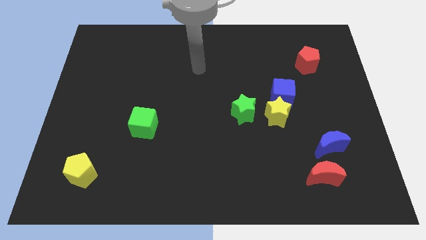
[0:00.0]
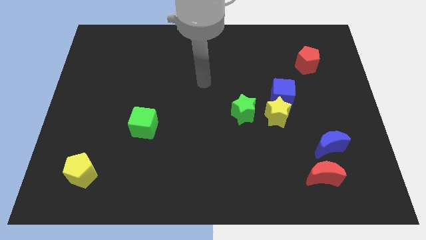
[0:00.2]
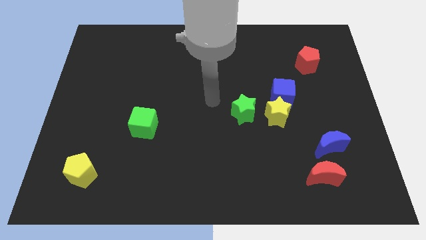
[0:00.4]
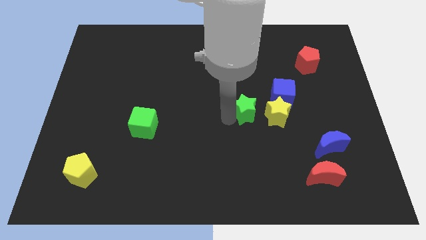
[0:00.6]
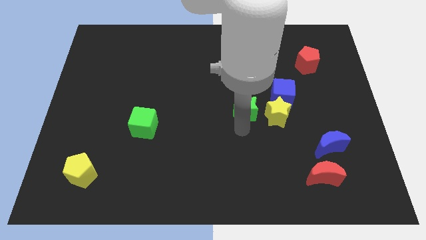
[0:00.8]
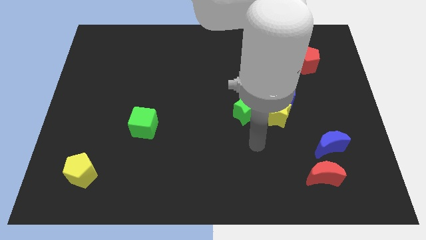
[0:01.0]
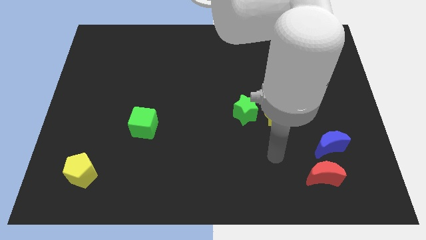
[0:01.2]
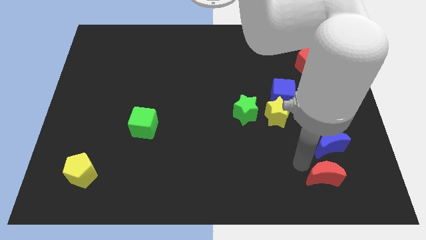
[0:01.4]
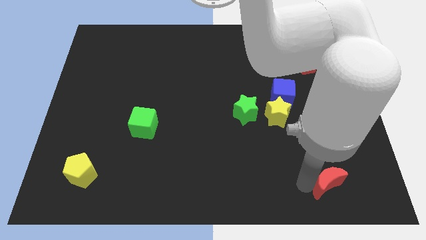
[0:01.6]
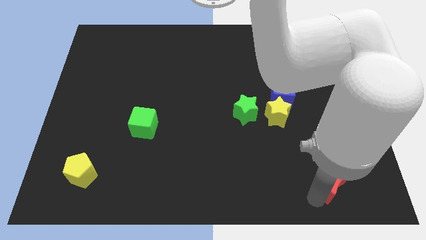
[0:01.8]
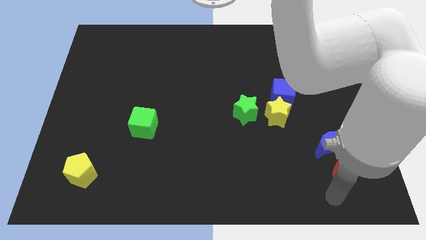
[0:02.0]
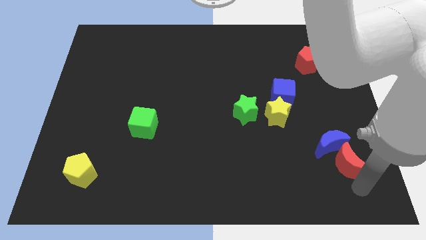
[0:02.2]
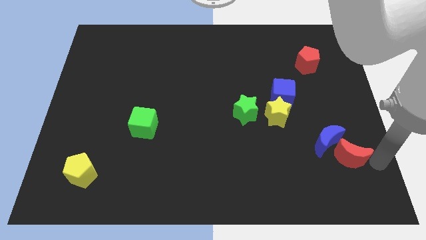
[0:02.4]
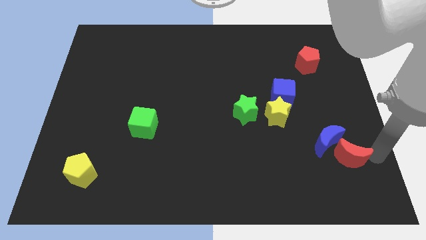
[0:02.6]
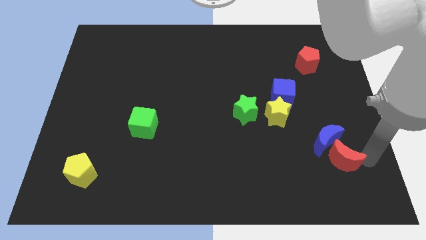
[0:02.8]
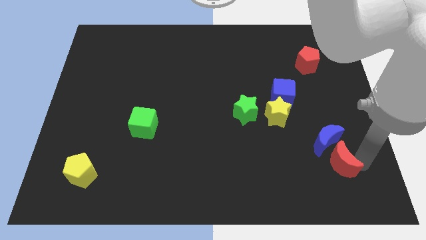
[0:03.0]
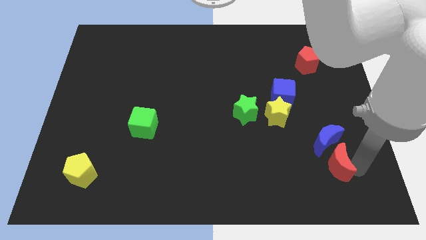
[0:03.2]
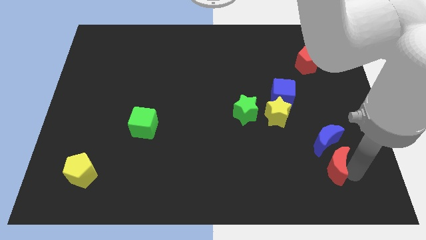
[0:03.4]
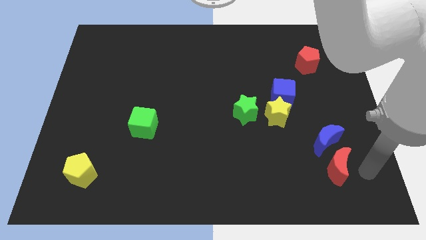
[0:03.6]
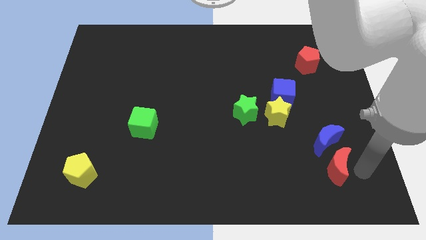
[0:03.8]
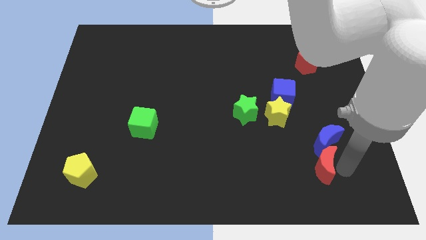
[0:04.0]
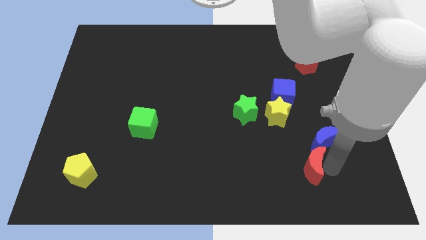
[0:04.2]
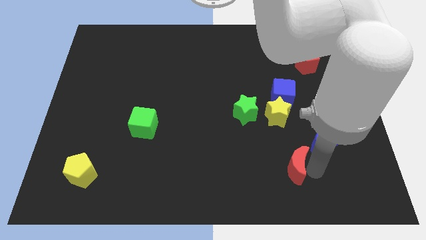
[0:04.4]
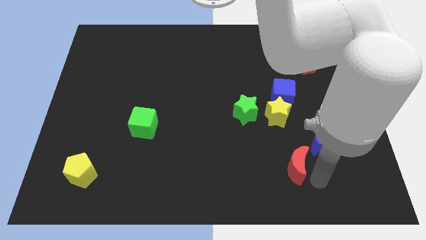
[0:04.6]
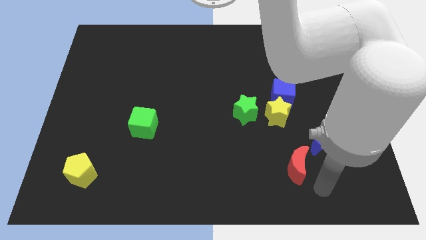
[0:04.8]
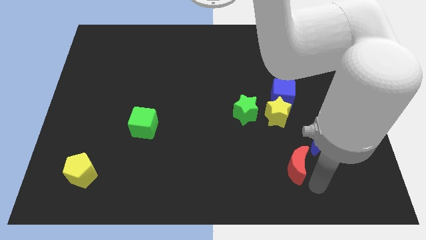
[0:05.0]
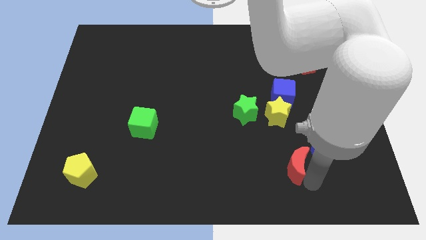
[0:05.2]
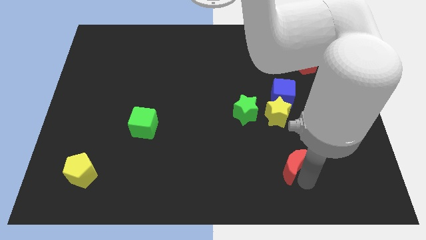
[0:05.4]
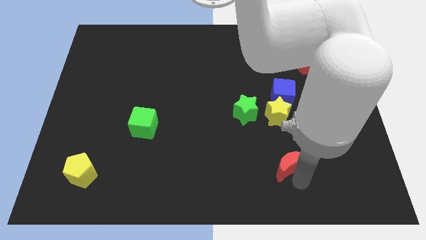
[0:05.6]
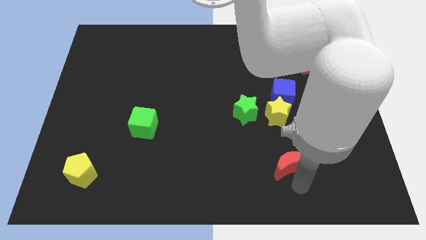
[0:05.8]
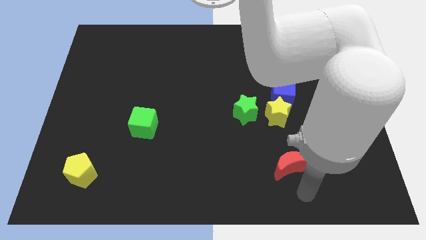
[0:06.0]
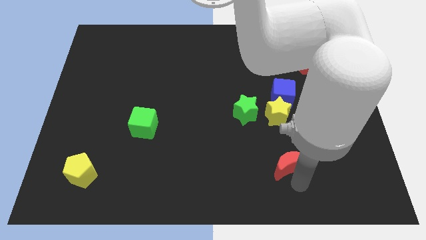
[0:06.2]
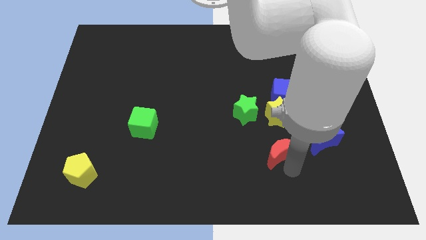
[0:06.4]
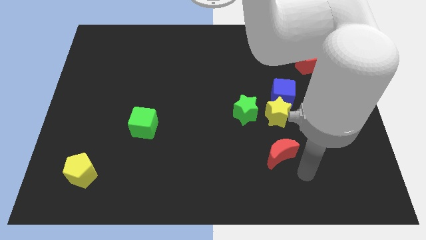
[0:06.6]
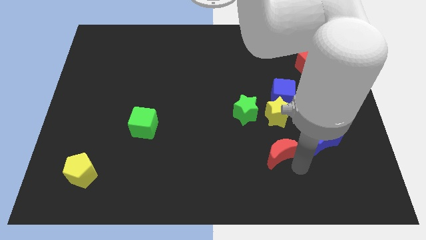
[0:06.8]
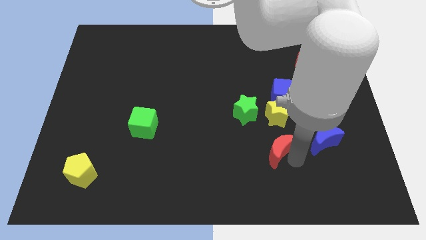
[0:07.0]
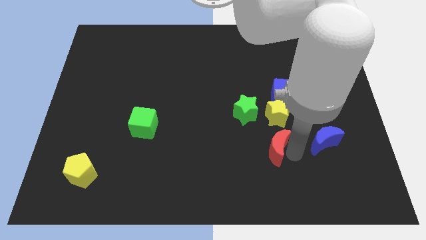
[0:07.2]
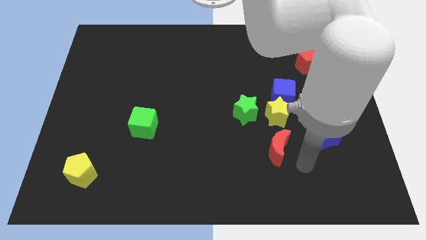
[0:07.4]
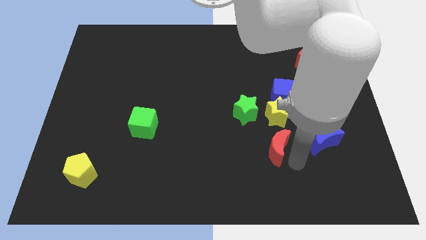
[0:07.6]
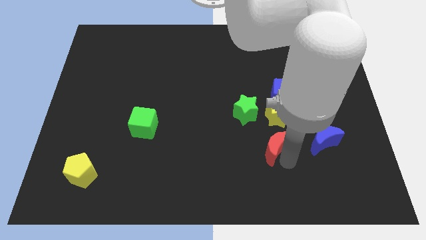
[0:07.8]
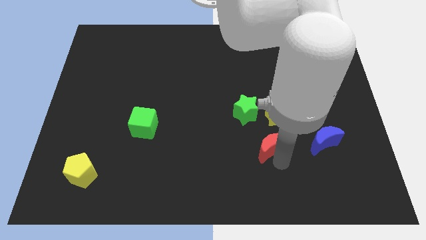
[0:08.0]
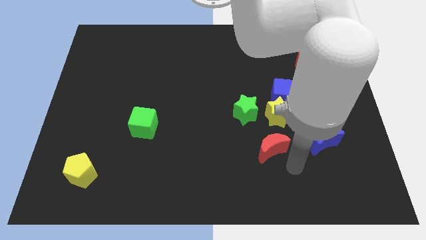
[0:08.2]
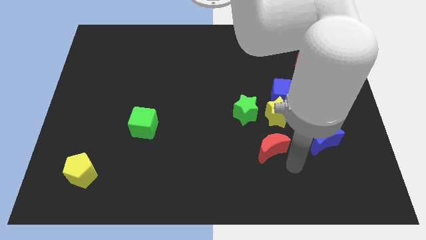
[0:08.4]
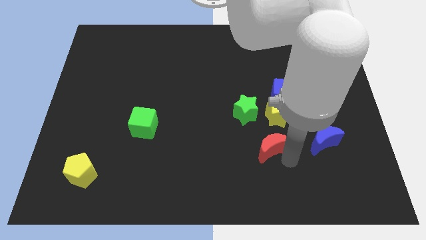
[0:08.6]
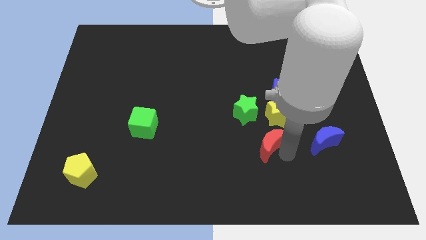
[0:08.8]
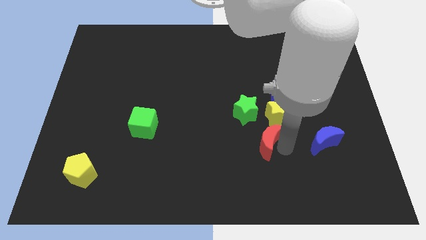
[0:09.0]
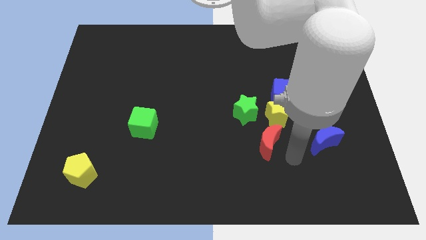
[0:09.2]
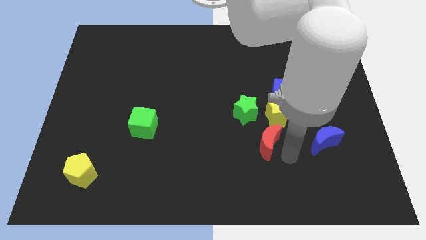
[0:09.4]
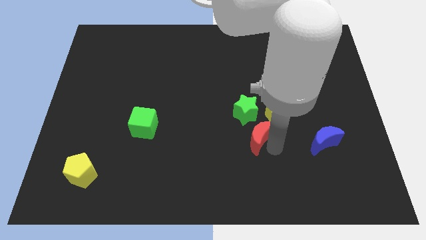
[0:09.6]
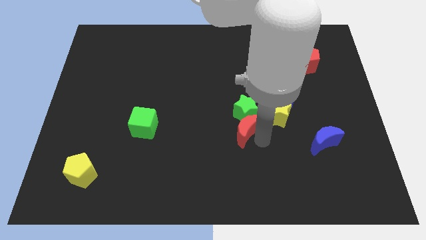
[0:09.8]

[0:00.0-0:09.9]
move the red moon just left of the yellow star

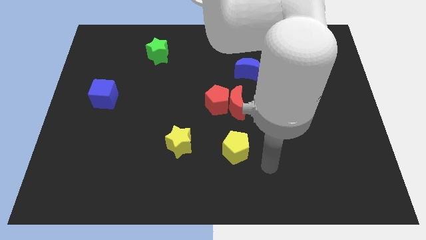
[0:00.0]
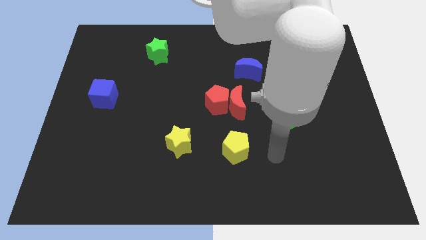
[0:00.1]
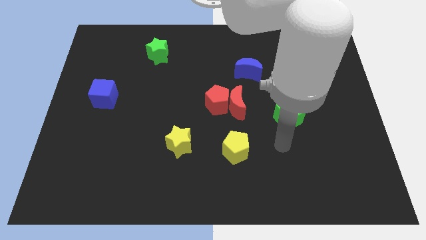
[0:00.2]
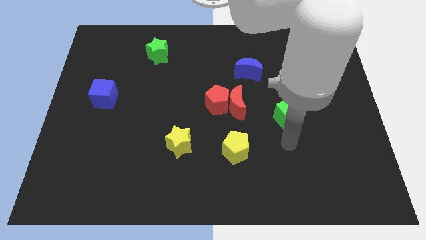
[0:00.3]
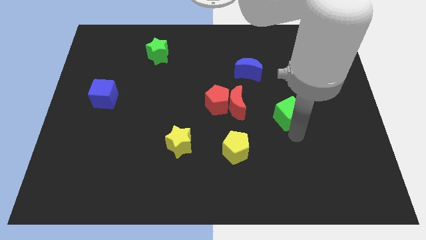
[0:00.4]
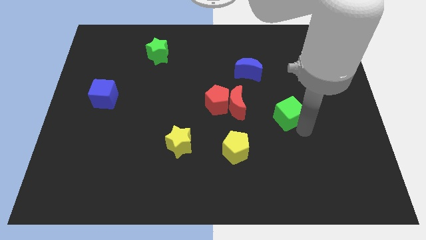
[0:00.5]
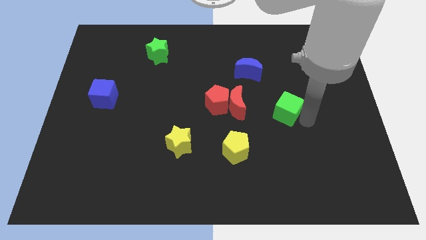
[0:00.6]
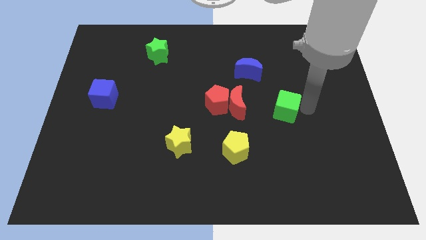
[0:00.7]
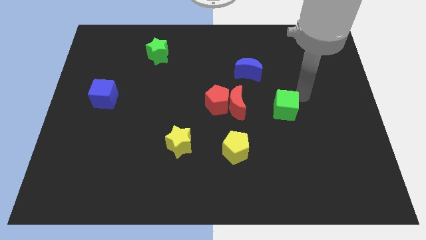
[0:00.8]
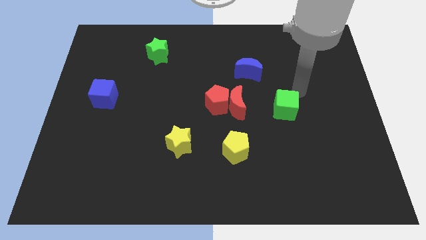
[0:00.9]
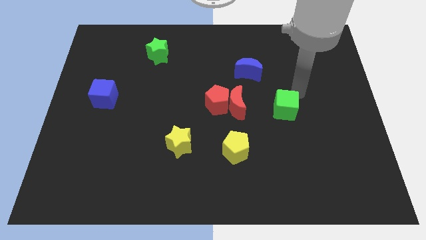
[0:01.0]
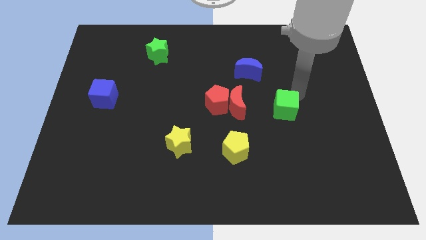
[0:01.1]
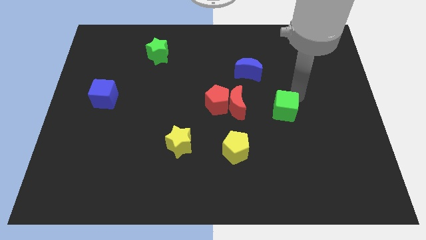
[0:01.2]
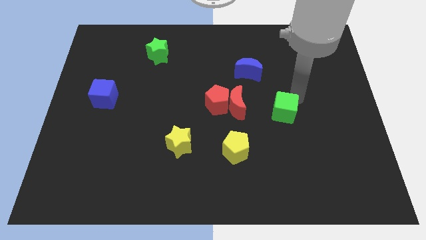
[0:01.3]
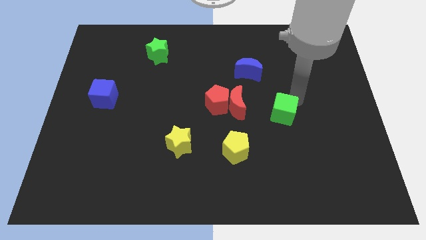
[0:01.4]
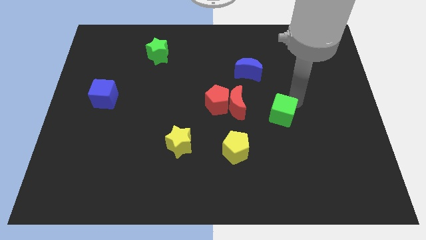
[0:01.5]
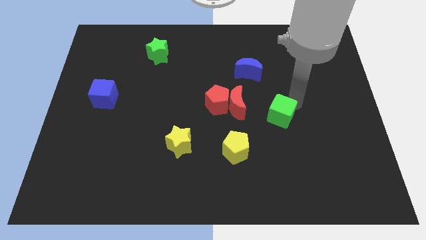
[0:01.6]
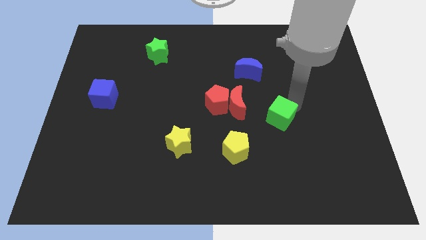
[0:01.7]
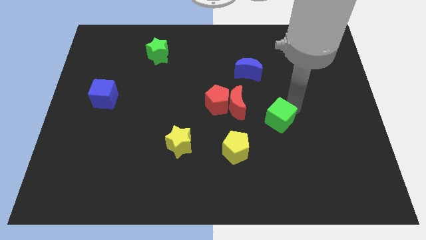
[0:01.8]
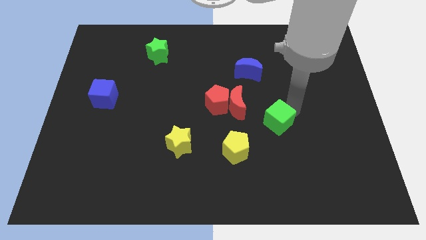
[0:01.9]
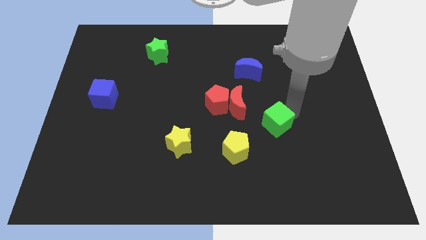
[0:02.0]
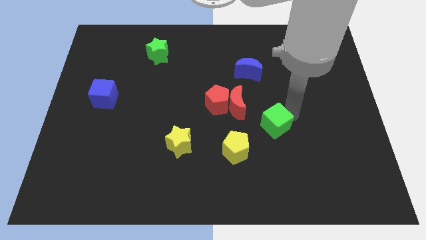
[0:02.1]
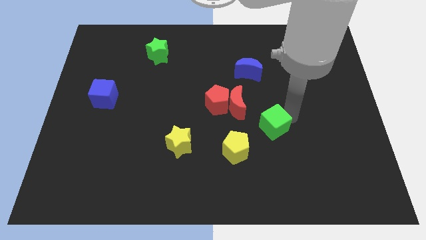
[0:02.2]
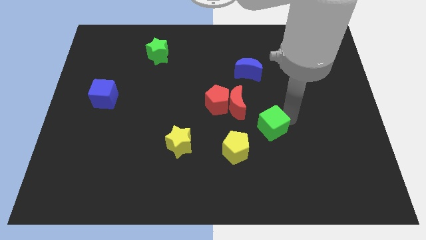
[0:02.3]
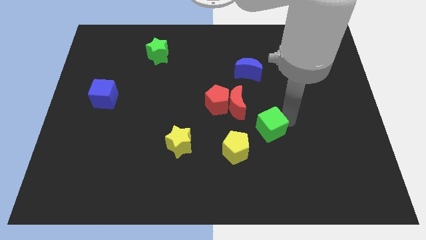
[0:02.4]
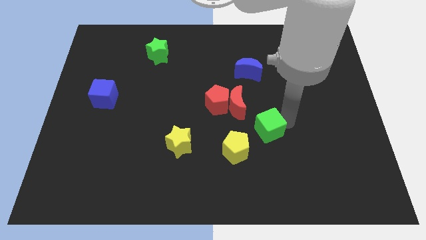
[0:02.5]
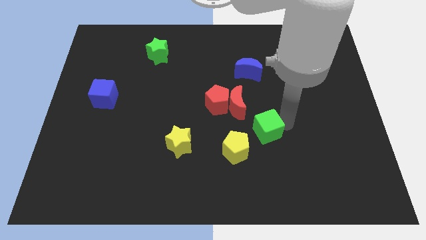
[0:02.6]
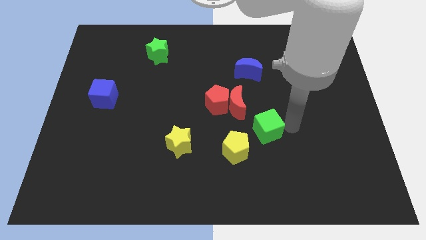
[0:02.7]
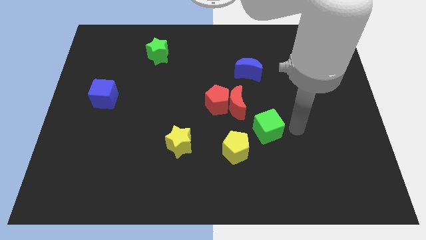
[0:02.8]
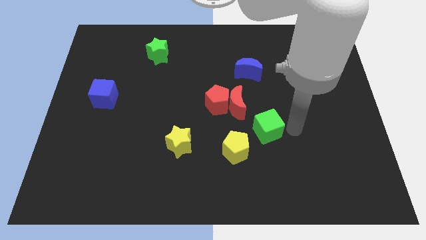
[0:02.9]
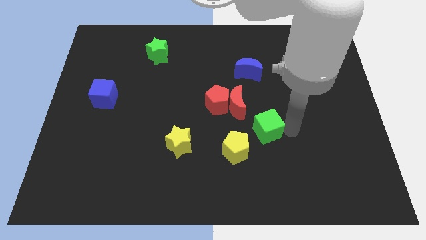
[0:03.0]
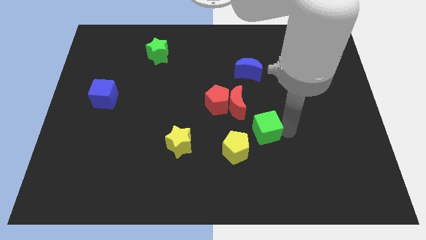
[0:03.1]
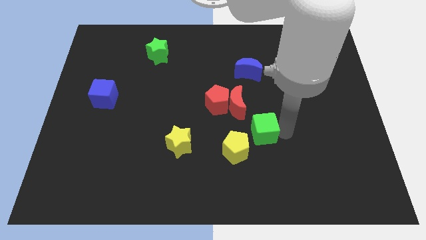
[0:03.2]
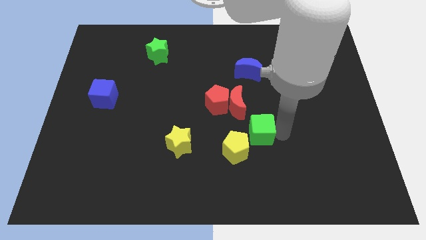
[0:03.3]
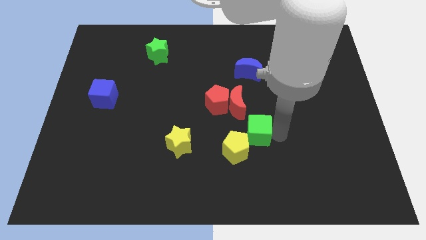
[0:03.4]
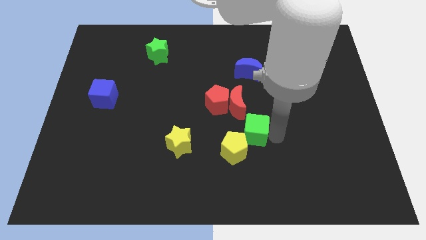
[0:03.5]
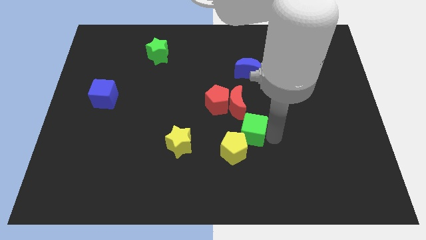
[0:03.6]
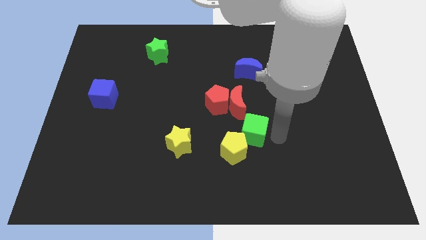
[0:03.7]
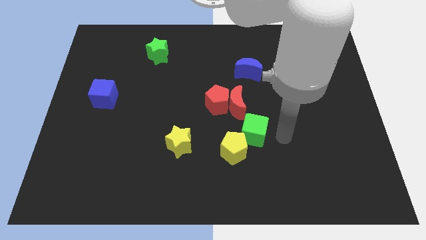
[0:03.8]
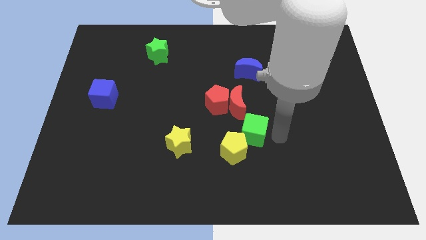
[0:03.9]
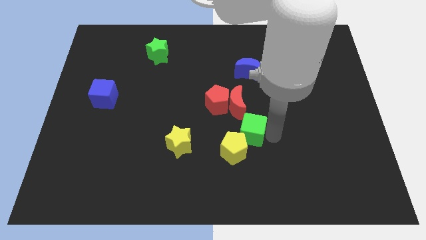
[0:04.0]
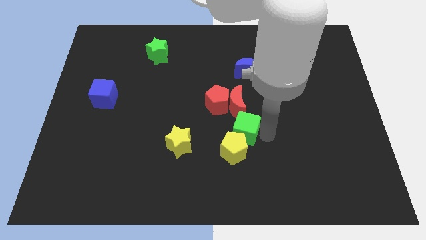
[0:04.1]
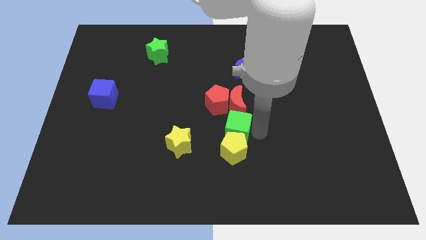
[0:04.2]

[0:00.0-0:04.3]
move the green cube to the bottom side of the red pentagon
